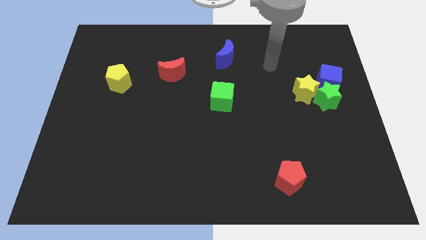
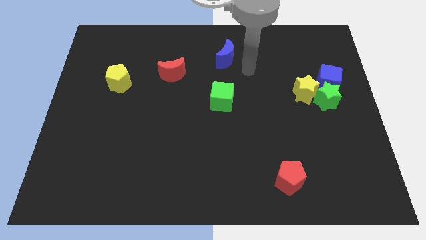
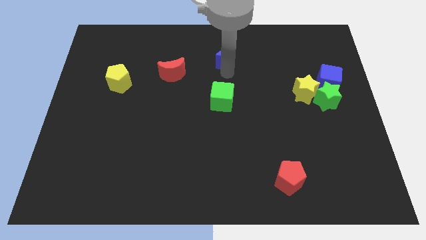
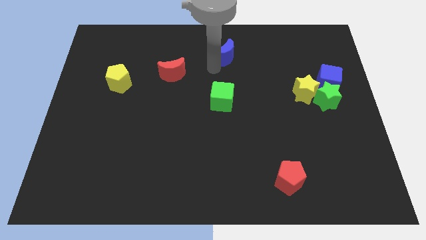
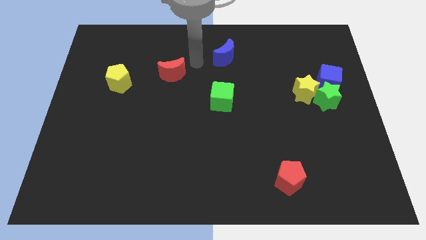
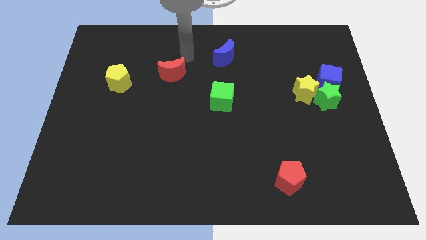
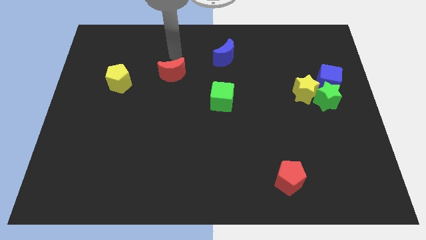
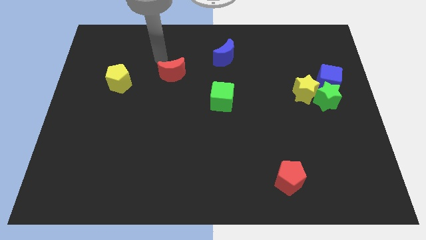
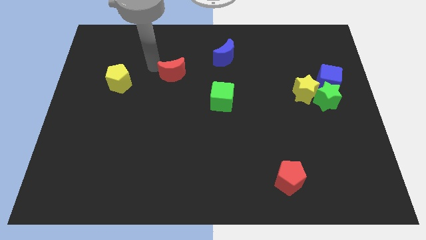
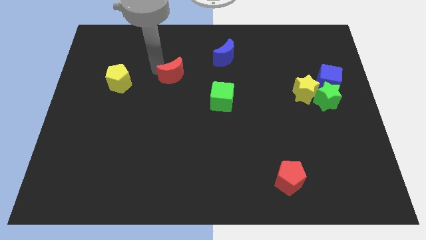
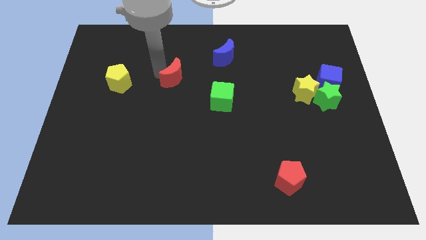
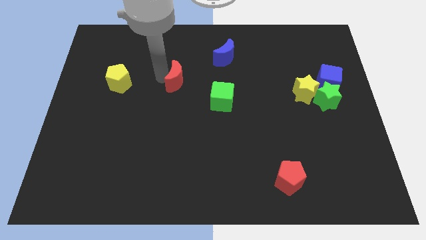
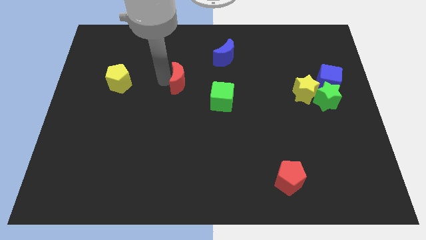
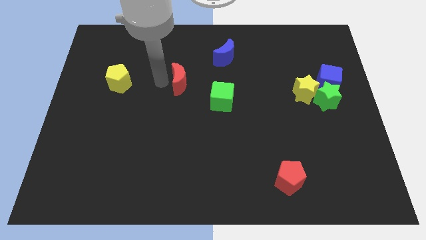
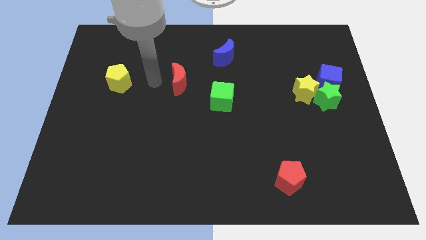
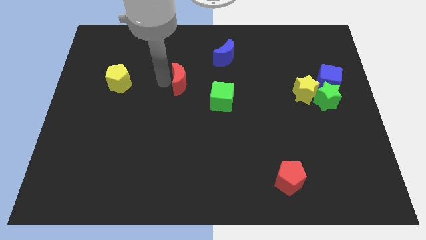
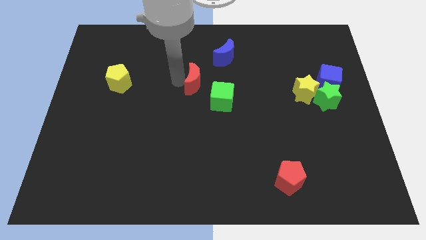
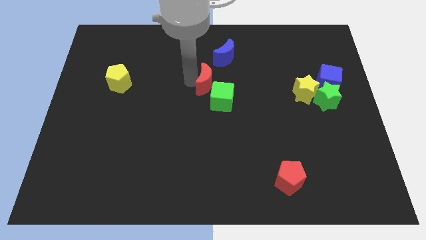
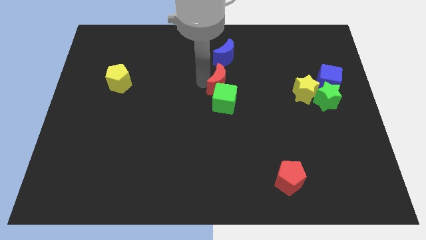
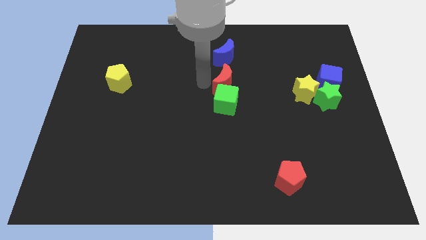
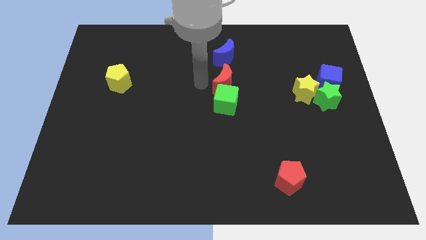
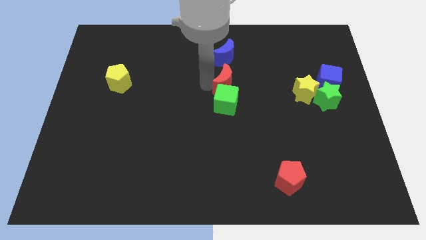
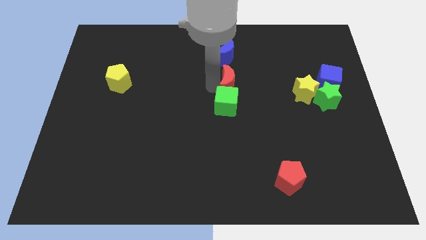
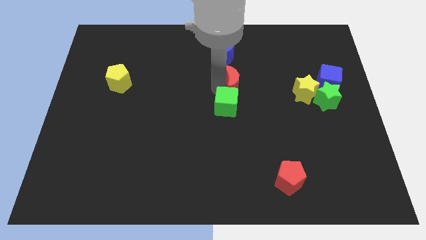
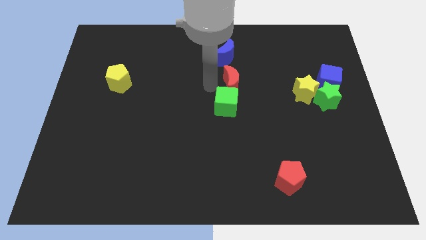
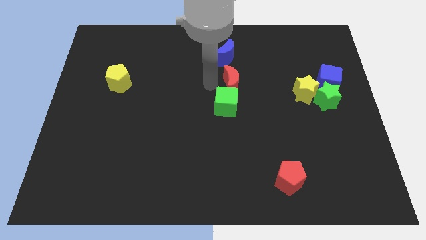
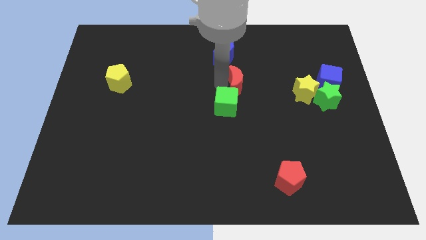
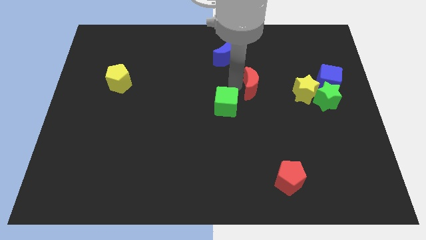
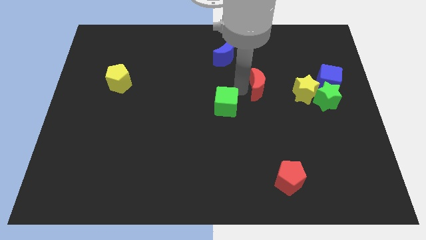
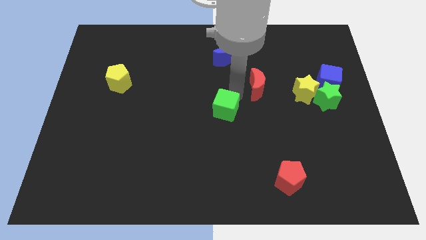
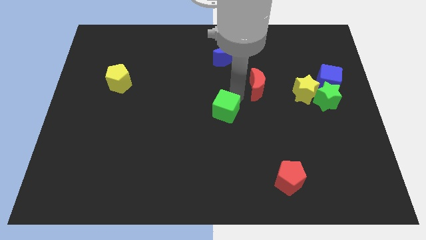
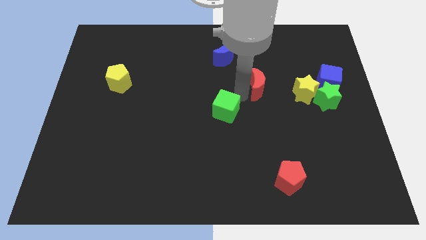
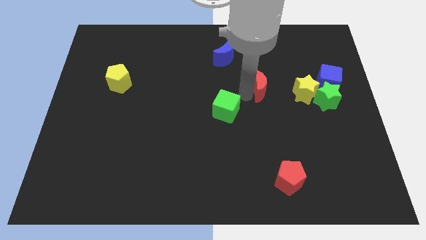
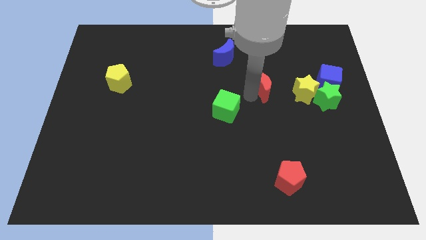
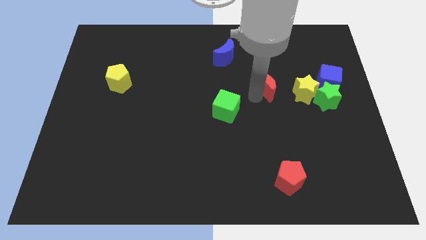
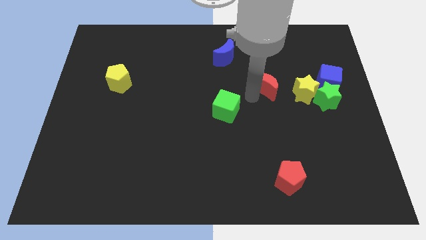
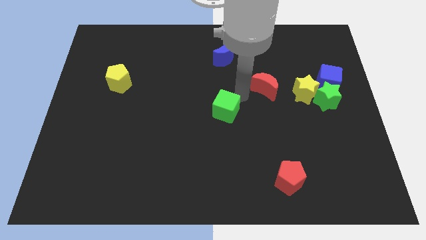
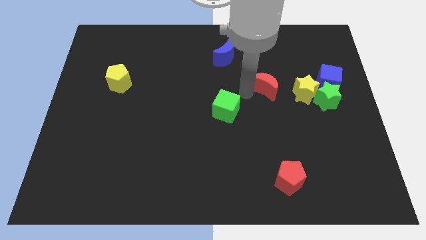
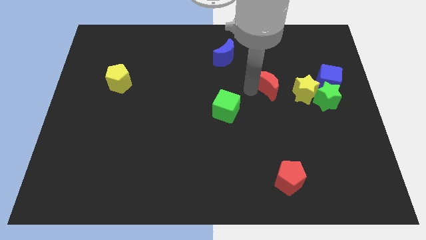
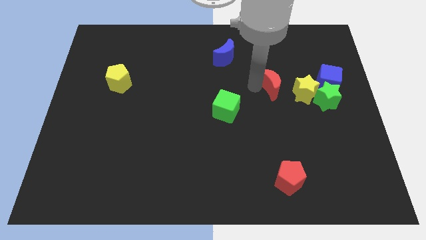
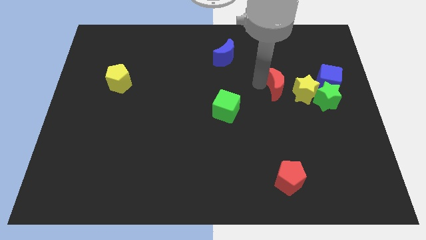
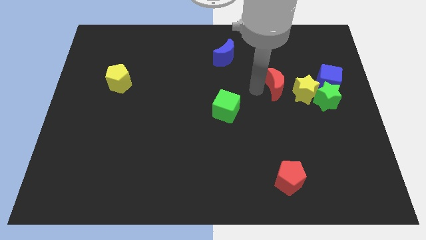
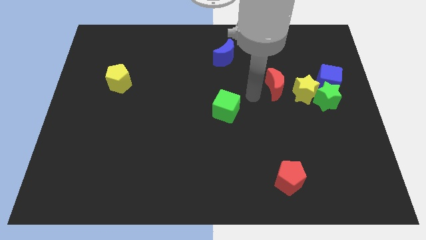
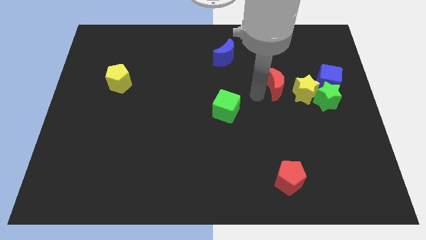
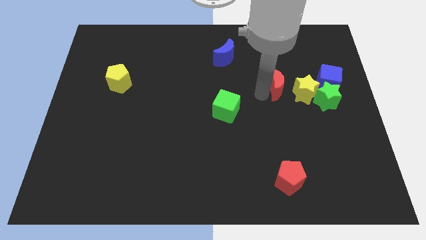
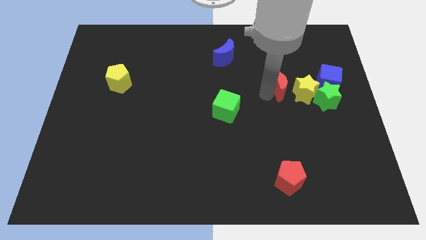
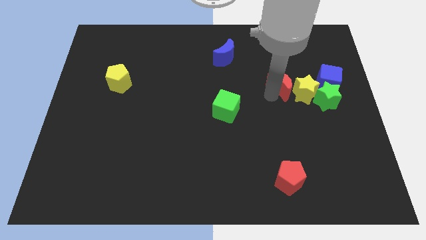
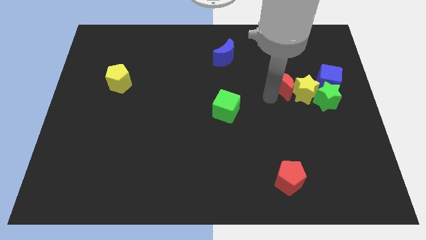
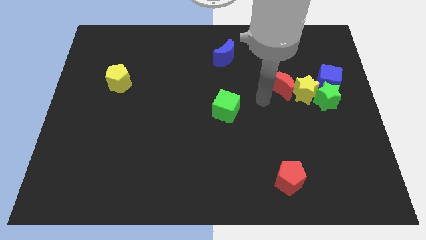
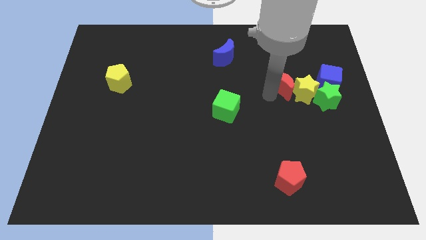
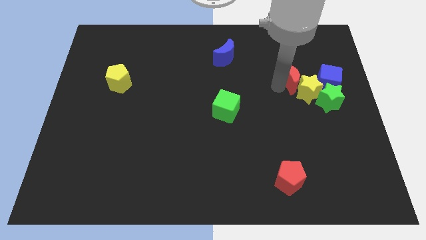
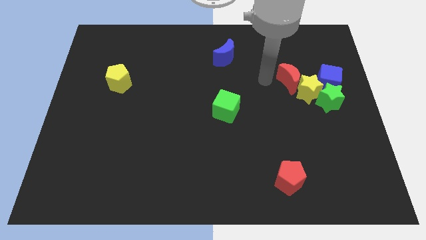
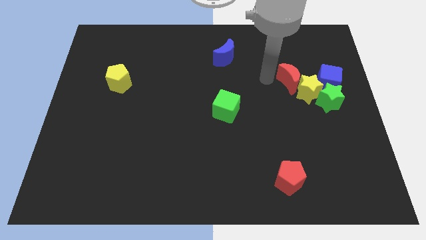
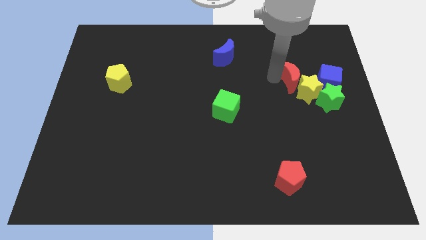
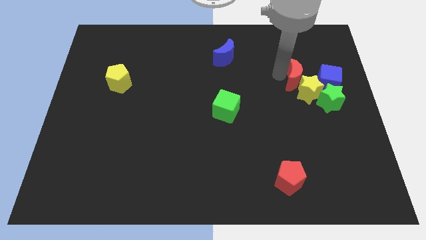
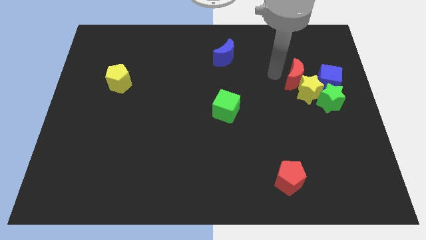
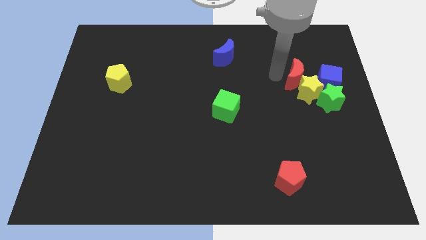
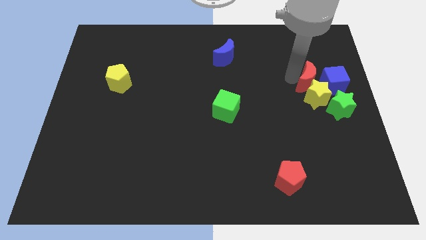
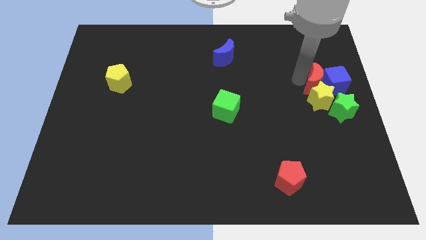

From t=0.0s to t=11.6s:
push the red moon close to the blue cube

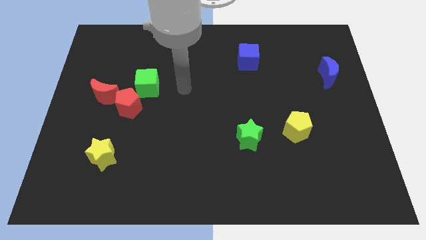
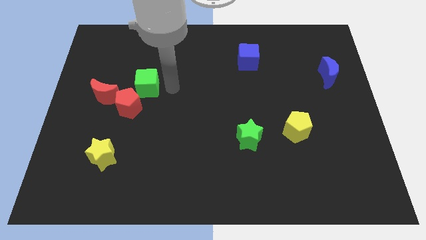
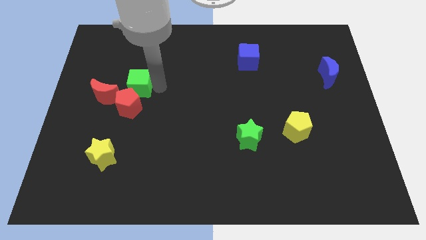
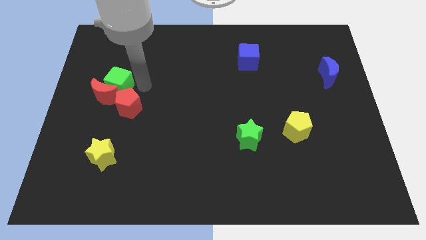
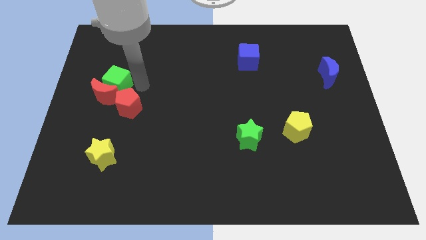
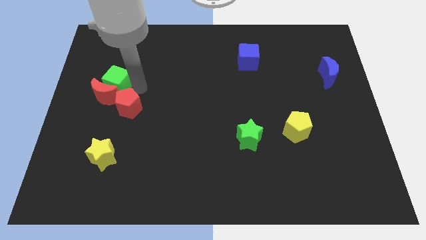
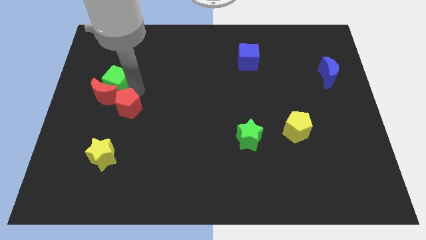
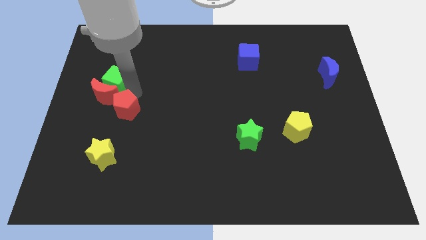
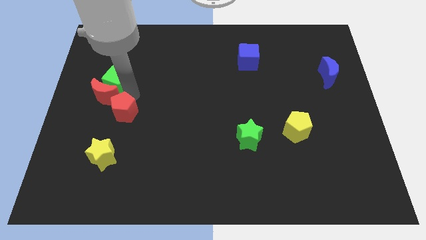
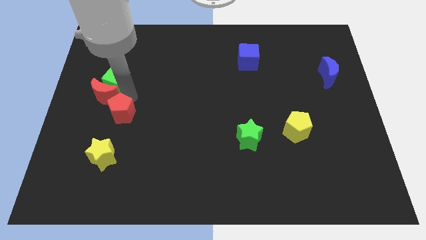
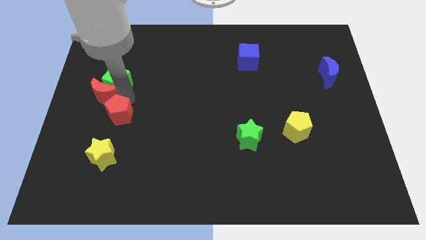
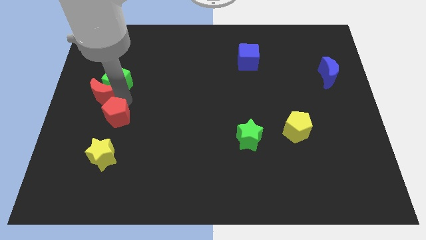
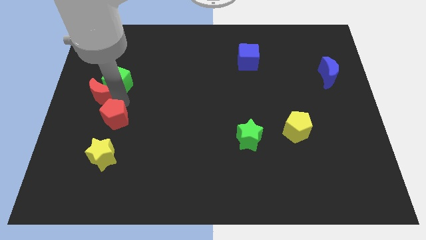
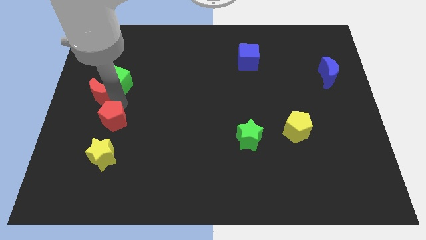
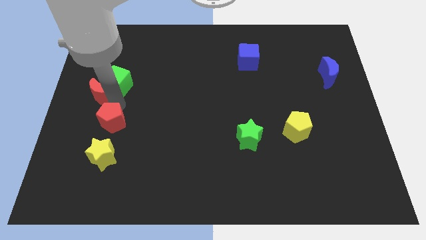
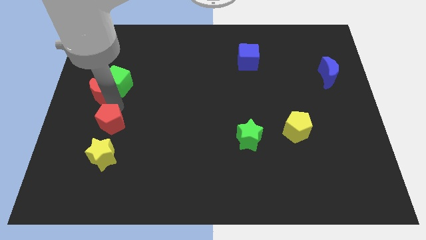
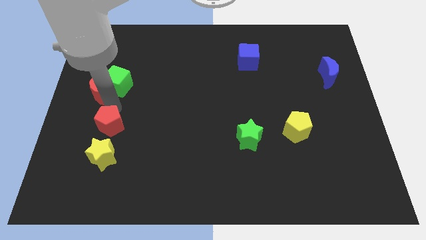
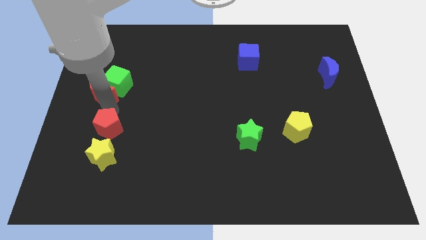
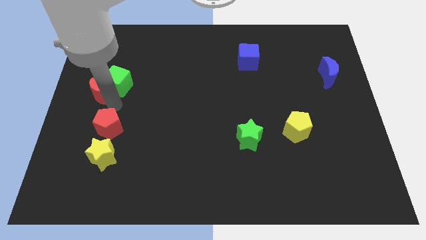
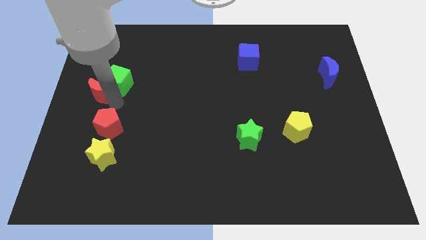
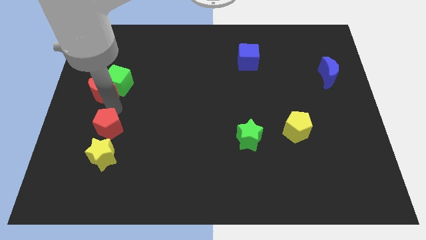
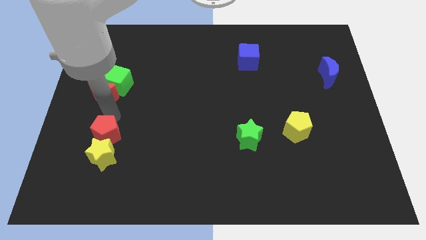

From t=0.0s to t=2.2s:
move the red pentagon close to the yellow star
